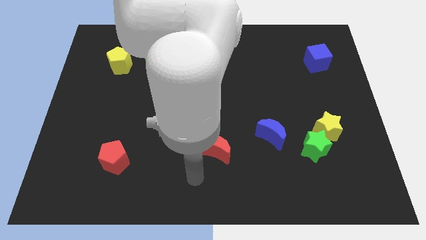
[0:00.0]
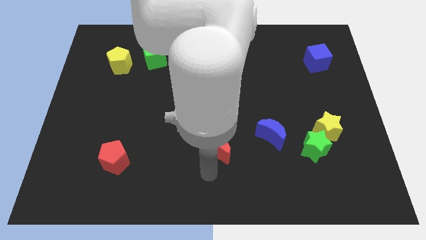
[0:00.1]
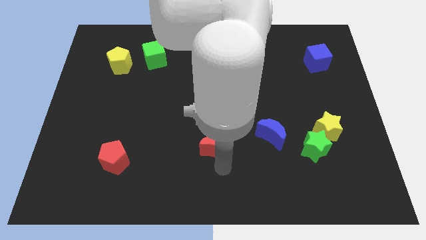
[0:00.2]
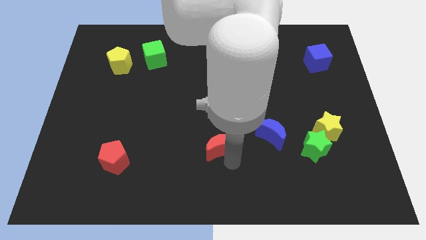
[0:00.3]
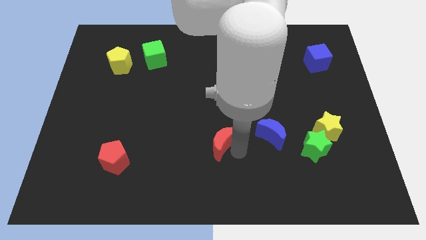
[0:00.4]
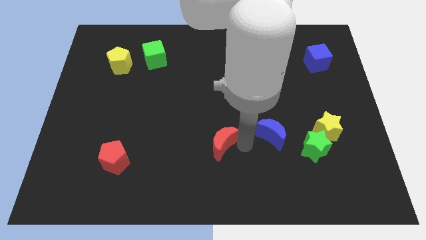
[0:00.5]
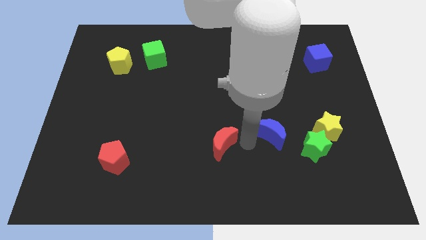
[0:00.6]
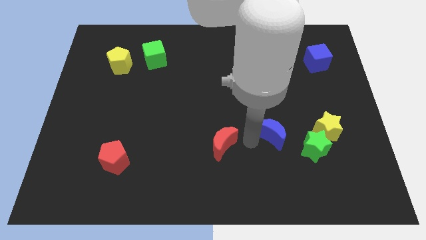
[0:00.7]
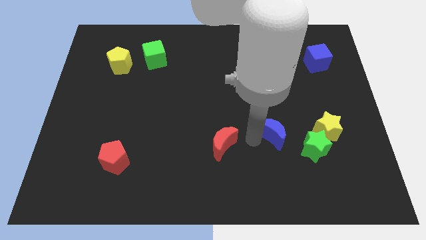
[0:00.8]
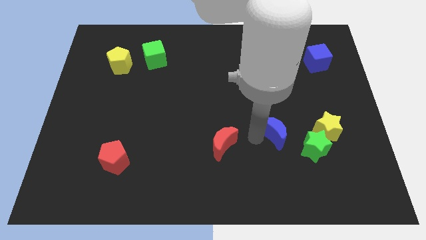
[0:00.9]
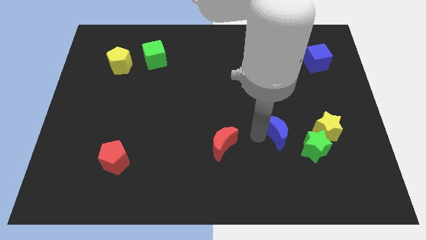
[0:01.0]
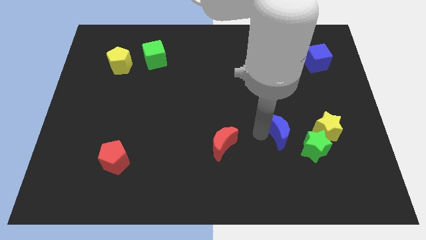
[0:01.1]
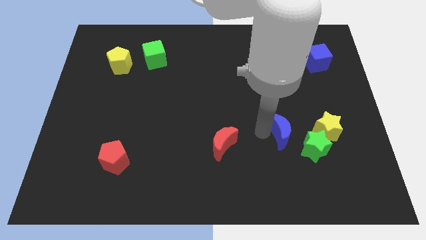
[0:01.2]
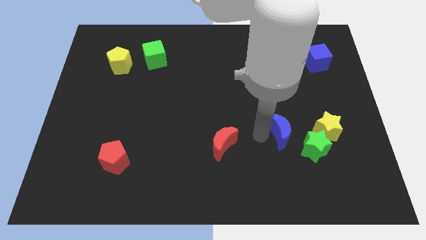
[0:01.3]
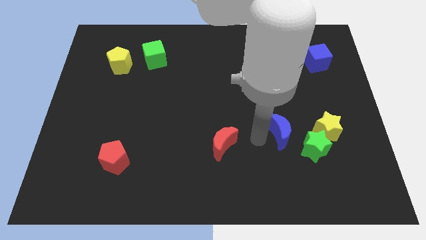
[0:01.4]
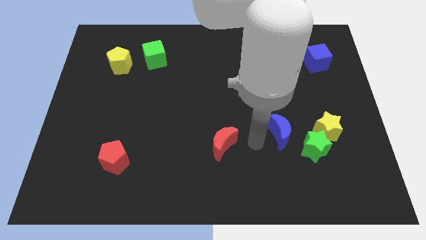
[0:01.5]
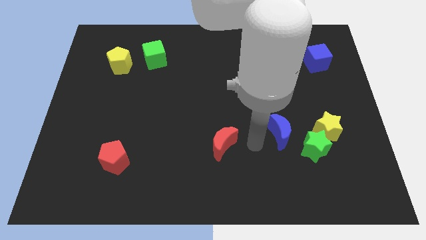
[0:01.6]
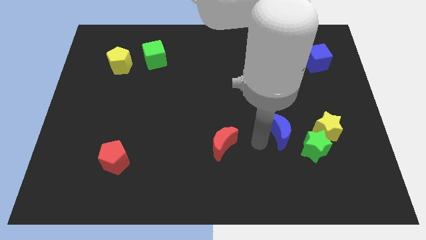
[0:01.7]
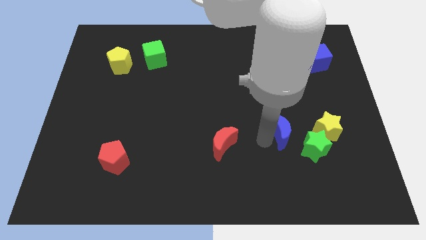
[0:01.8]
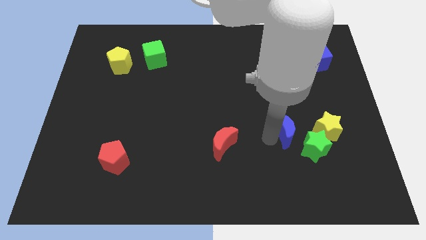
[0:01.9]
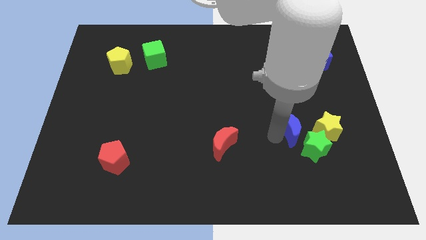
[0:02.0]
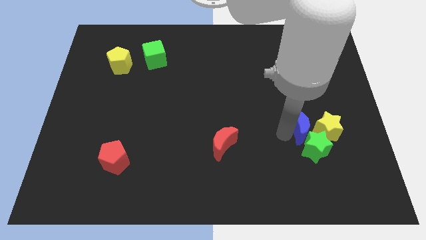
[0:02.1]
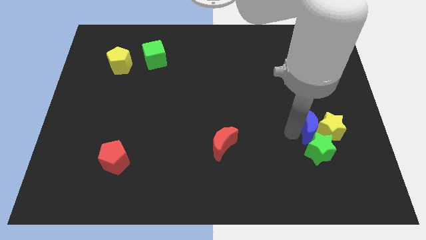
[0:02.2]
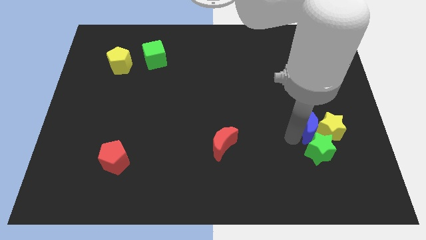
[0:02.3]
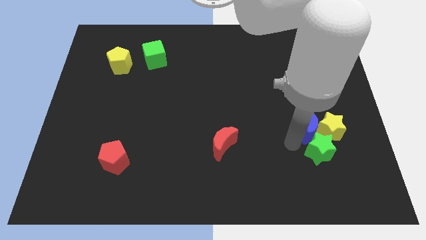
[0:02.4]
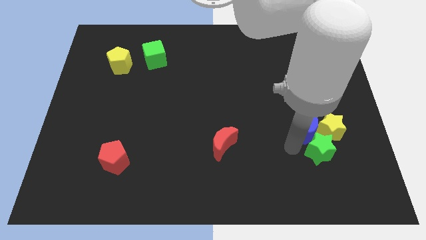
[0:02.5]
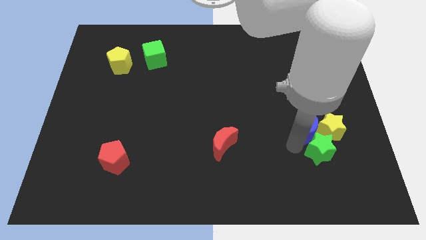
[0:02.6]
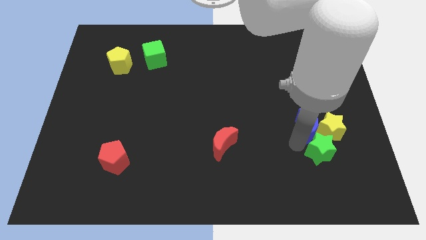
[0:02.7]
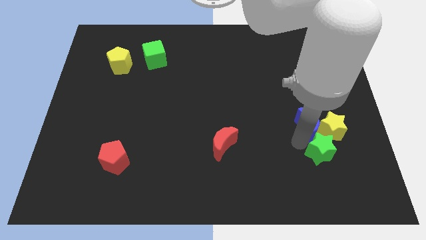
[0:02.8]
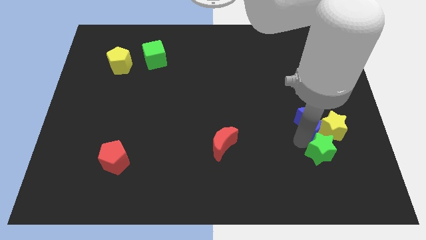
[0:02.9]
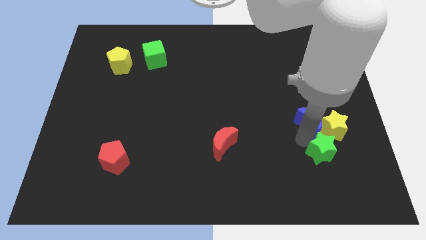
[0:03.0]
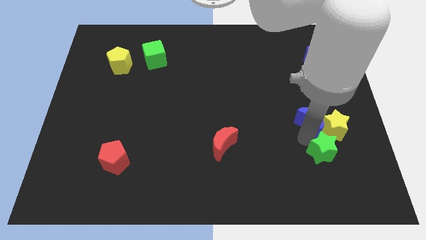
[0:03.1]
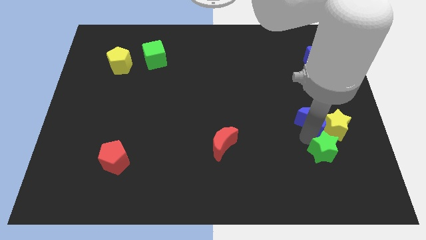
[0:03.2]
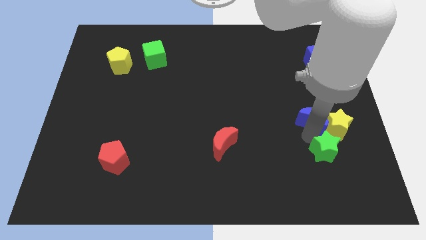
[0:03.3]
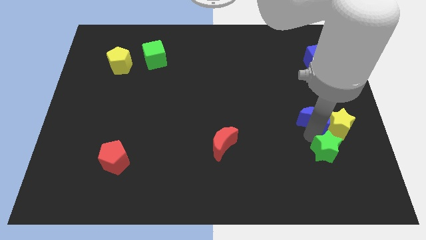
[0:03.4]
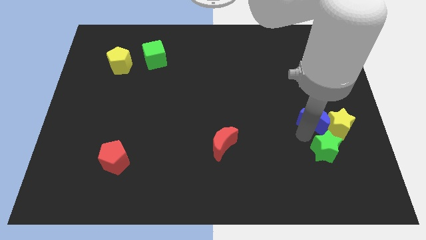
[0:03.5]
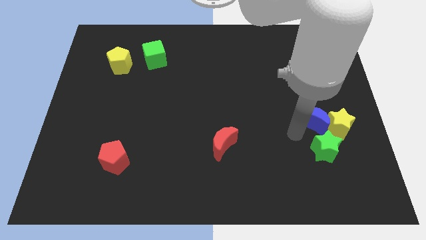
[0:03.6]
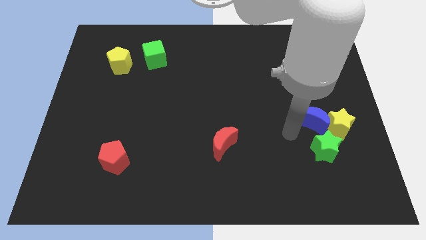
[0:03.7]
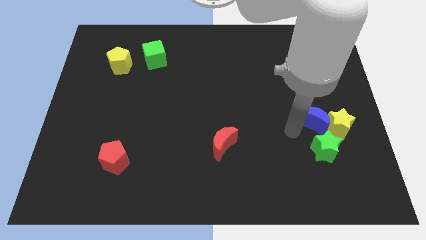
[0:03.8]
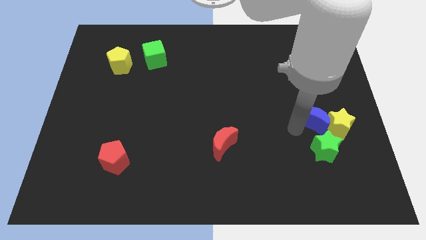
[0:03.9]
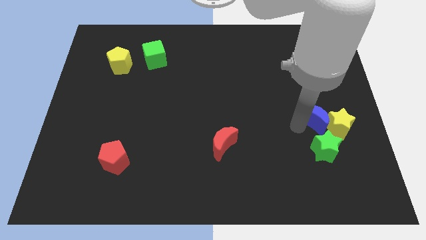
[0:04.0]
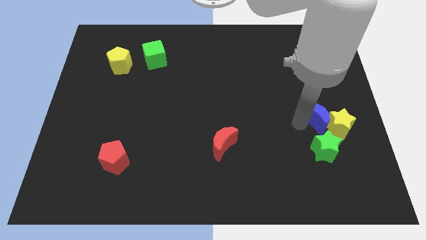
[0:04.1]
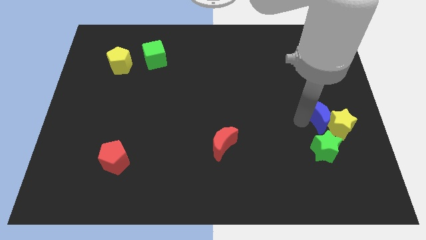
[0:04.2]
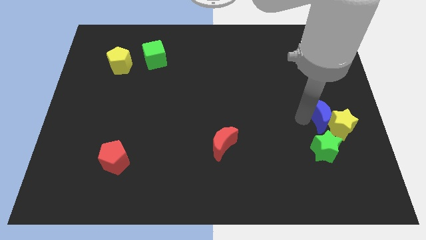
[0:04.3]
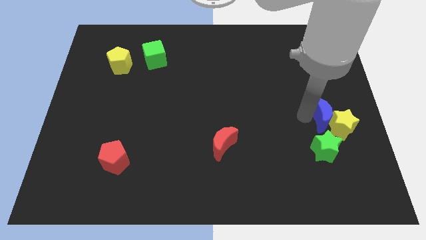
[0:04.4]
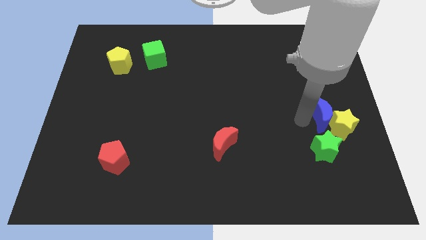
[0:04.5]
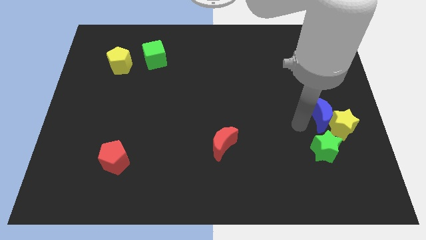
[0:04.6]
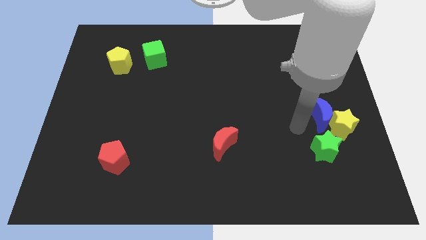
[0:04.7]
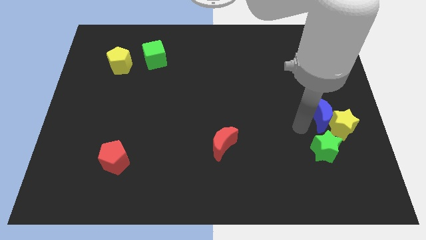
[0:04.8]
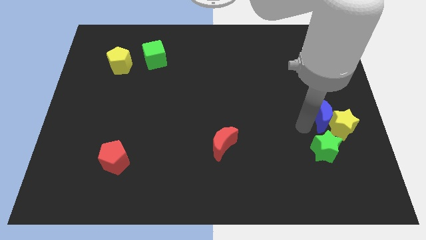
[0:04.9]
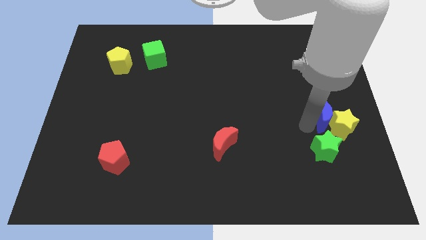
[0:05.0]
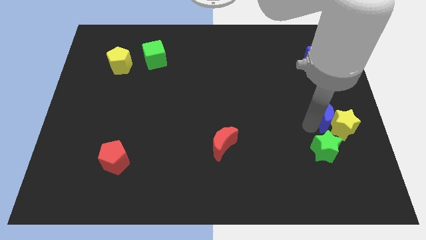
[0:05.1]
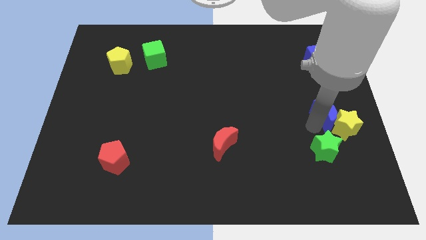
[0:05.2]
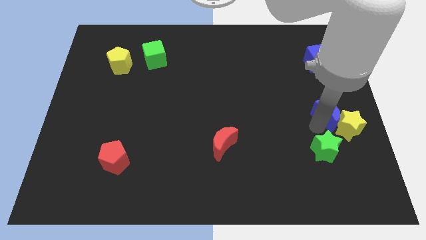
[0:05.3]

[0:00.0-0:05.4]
put the blue moon to the center right

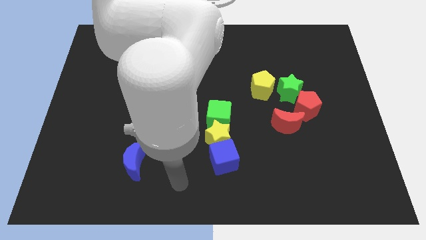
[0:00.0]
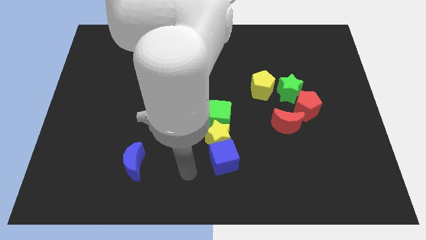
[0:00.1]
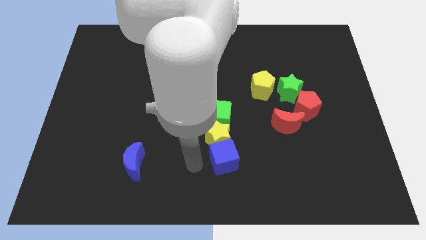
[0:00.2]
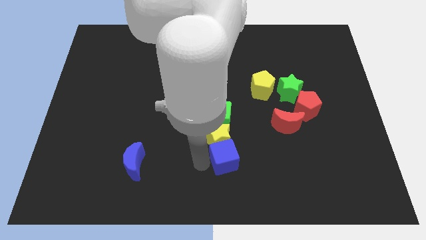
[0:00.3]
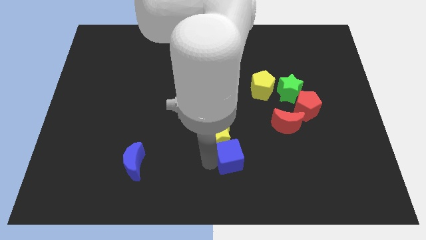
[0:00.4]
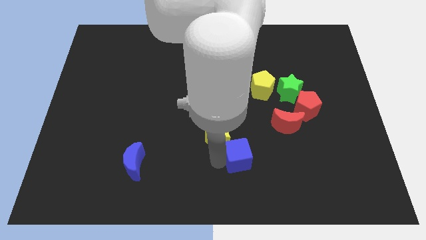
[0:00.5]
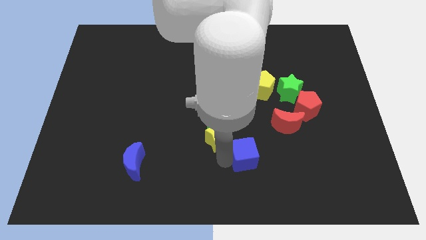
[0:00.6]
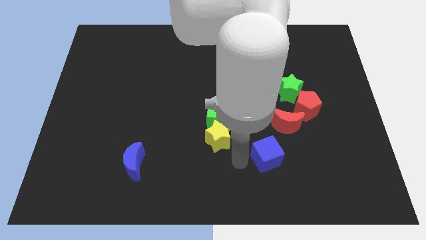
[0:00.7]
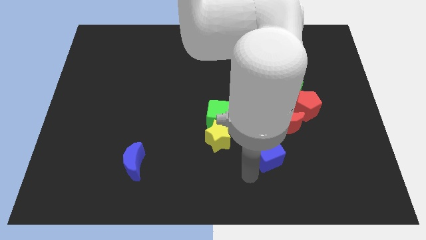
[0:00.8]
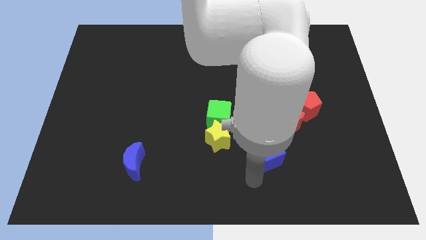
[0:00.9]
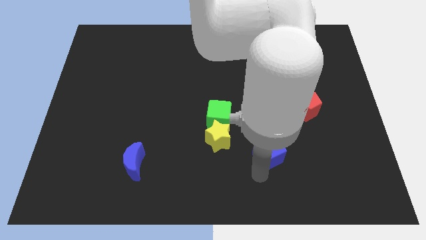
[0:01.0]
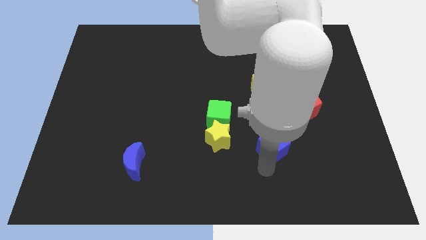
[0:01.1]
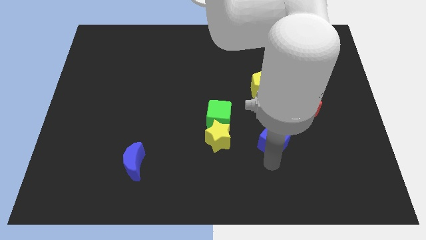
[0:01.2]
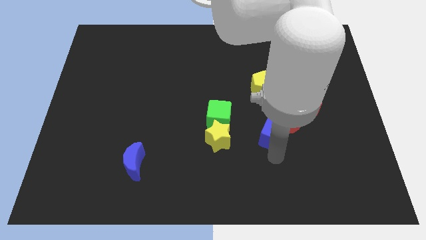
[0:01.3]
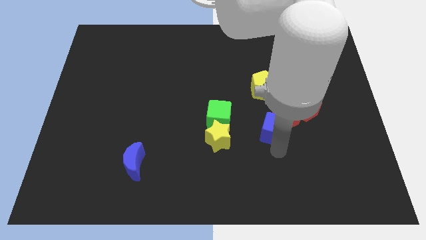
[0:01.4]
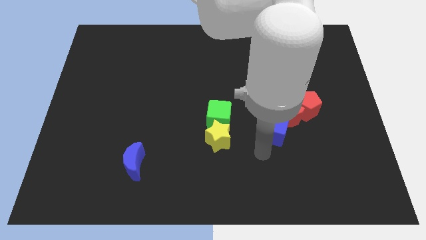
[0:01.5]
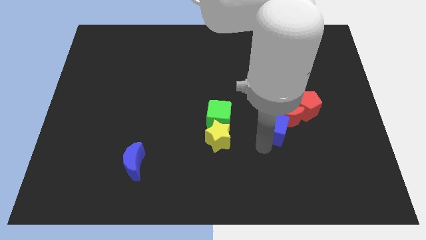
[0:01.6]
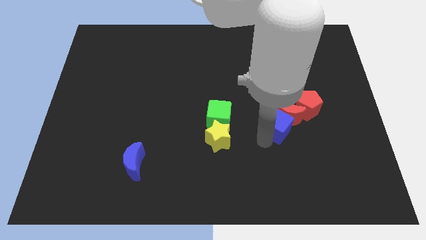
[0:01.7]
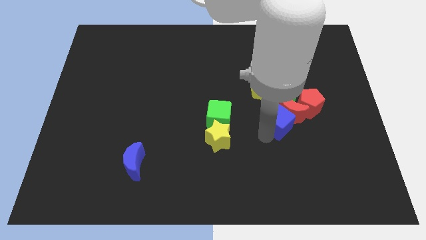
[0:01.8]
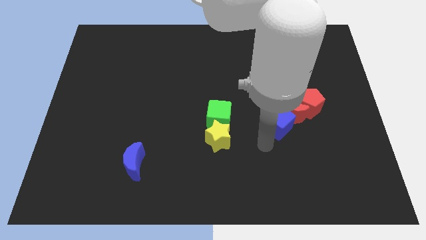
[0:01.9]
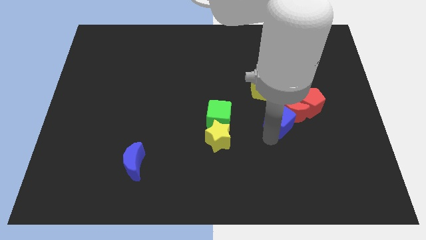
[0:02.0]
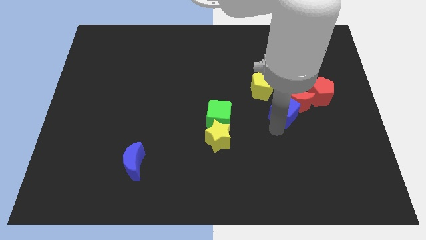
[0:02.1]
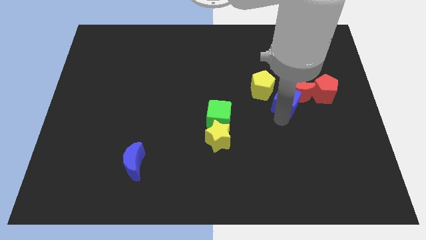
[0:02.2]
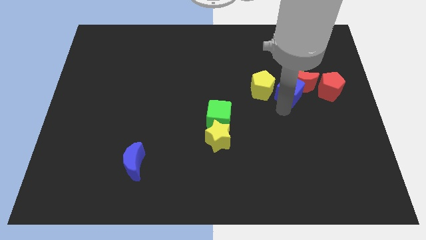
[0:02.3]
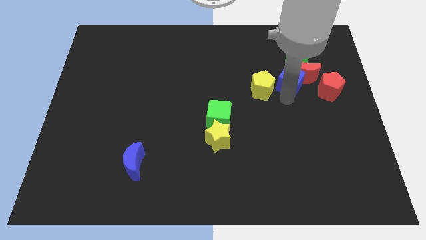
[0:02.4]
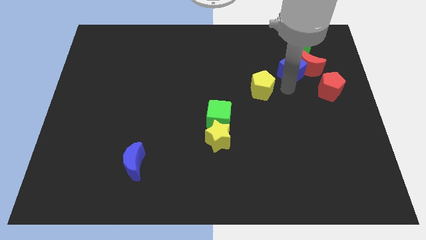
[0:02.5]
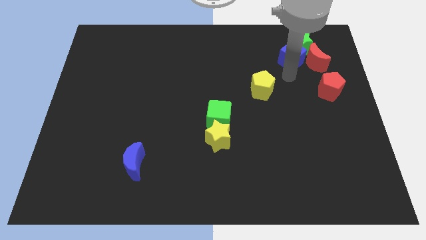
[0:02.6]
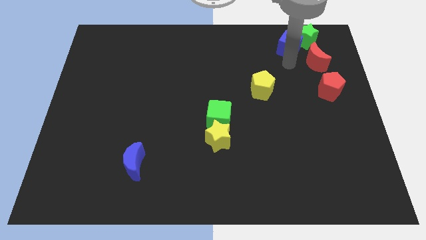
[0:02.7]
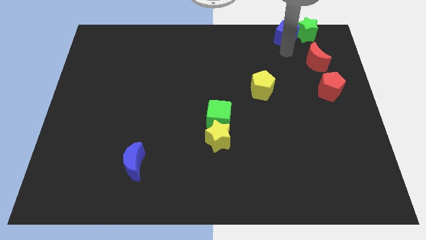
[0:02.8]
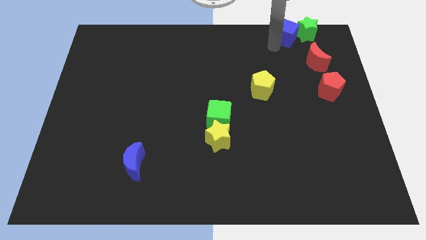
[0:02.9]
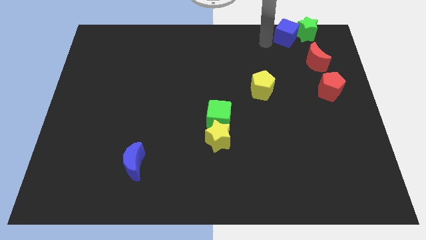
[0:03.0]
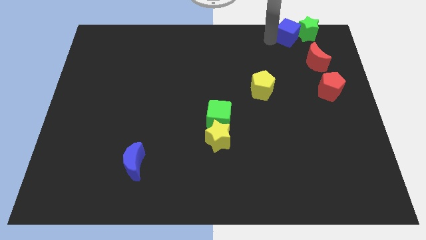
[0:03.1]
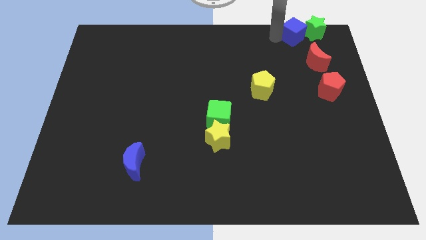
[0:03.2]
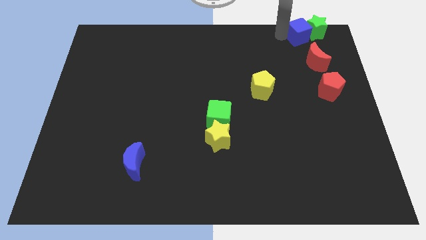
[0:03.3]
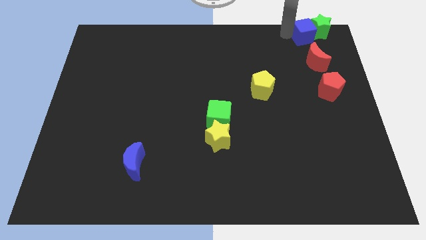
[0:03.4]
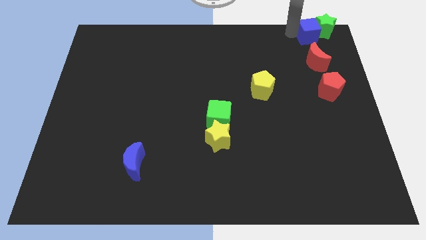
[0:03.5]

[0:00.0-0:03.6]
put the blue cube to the top right
